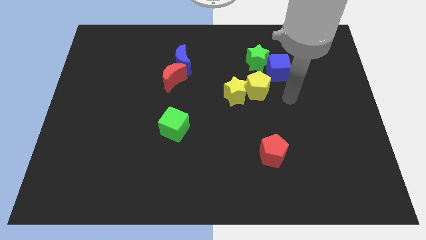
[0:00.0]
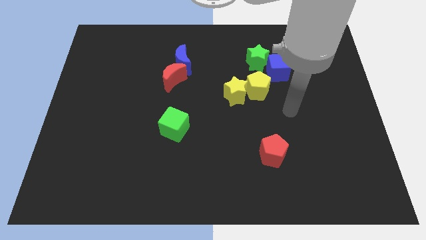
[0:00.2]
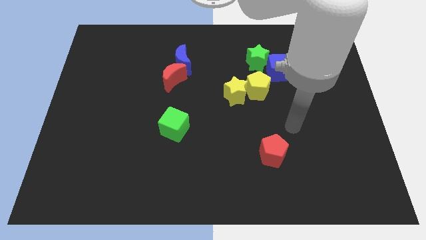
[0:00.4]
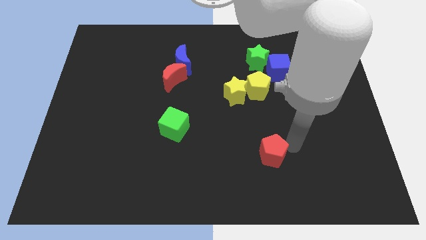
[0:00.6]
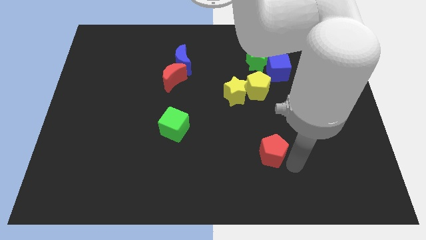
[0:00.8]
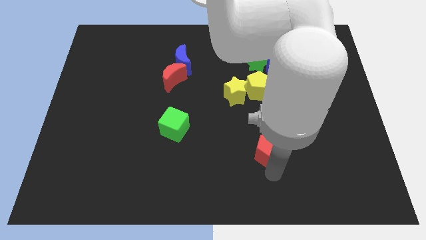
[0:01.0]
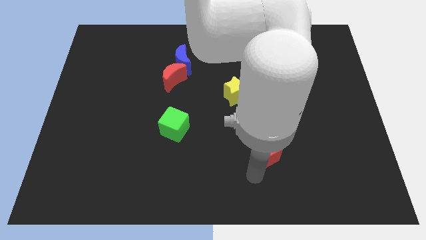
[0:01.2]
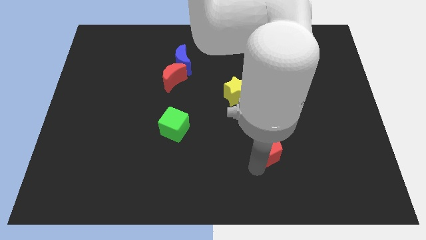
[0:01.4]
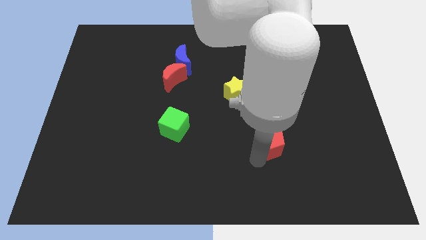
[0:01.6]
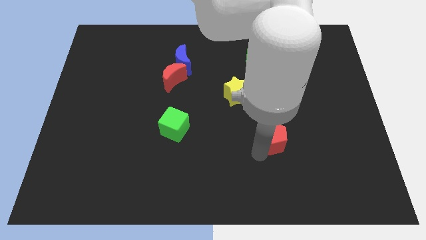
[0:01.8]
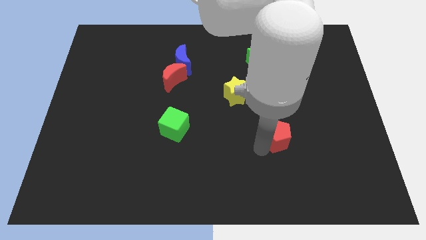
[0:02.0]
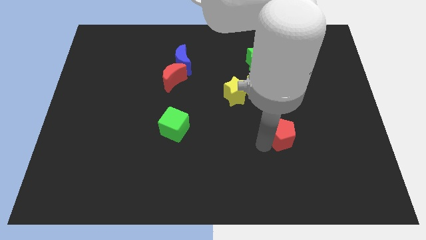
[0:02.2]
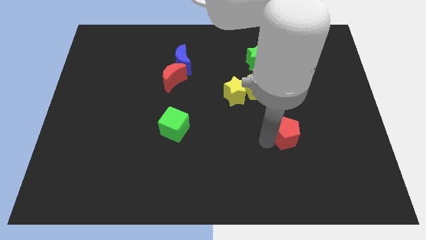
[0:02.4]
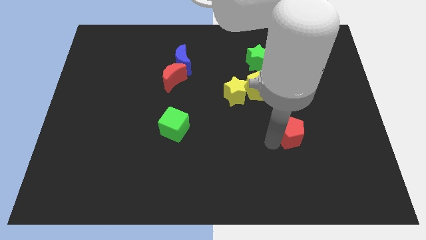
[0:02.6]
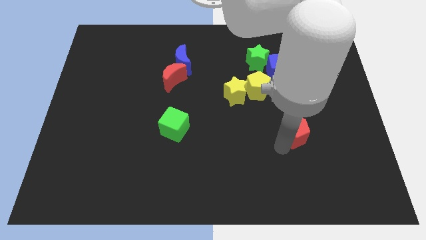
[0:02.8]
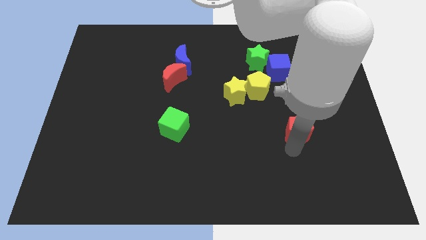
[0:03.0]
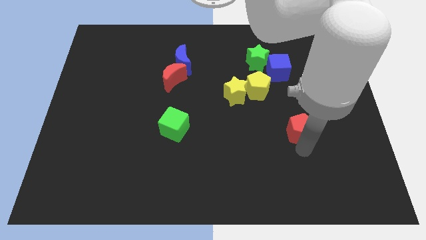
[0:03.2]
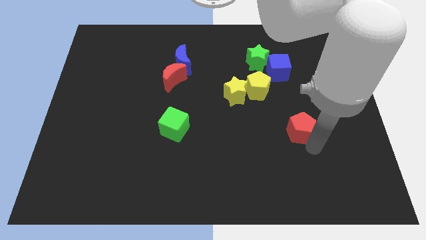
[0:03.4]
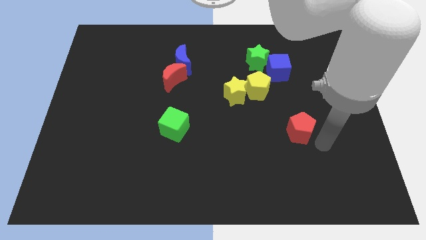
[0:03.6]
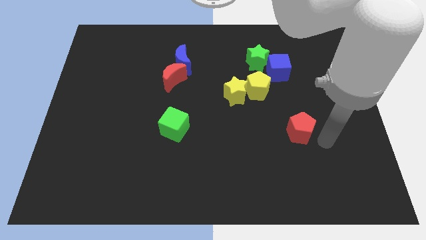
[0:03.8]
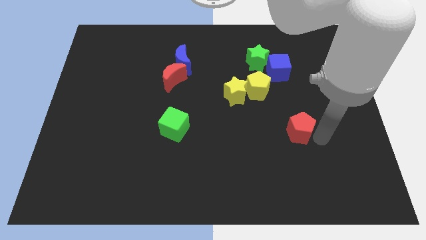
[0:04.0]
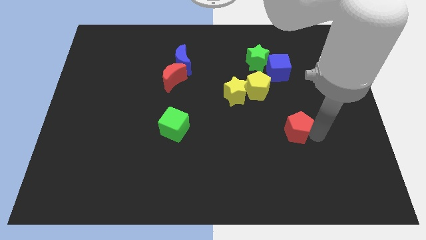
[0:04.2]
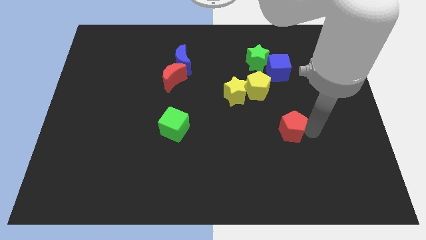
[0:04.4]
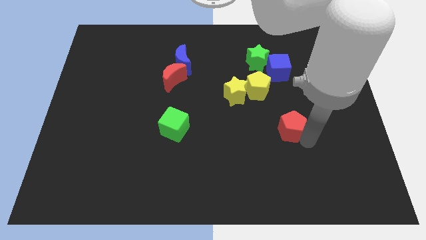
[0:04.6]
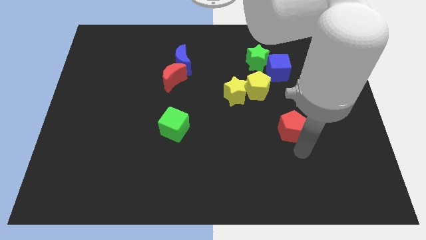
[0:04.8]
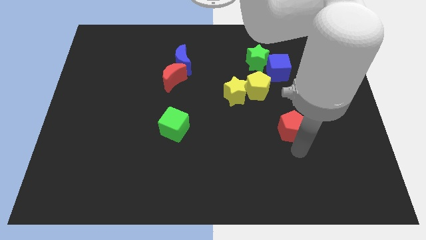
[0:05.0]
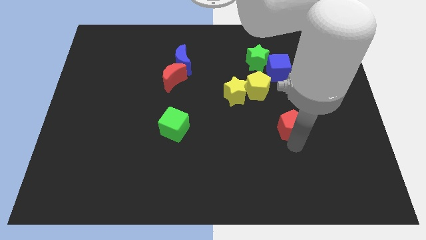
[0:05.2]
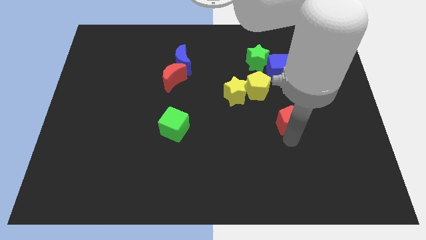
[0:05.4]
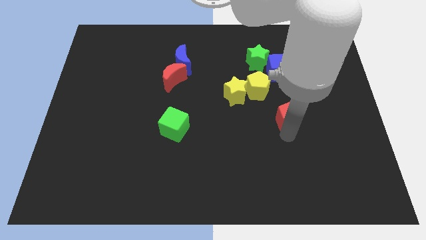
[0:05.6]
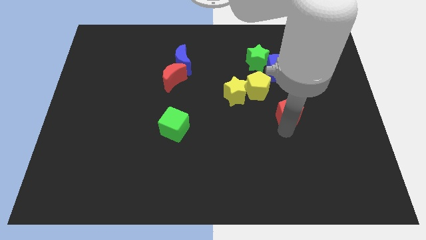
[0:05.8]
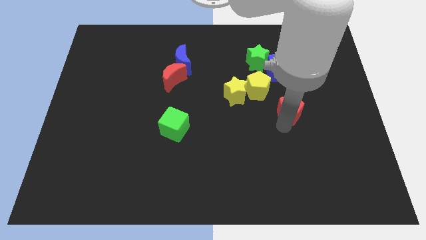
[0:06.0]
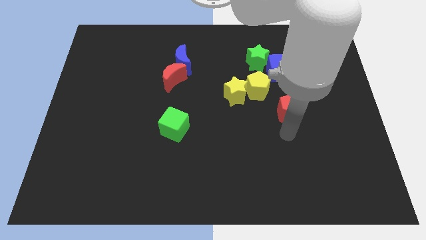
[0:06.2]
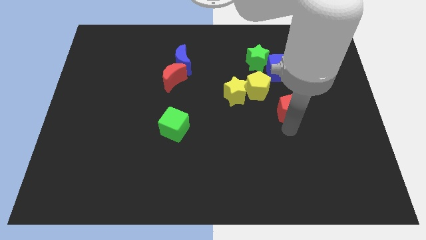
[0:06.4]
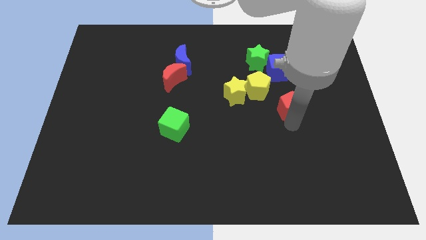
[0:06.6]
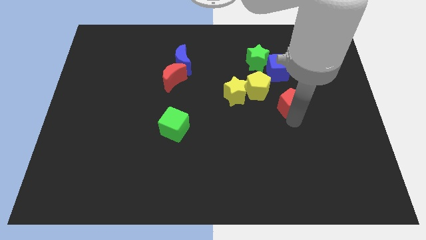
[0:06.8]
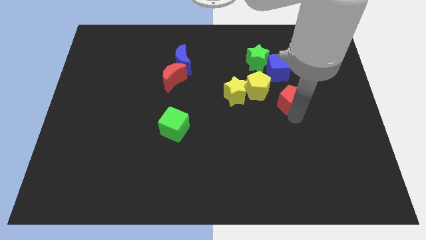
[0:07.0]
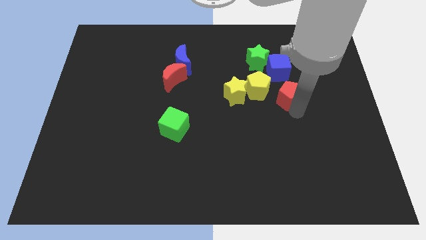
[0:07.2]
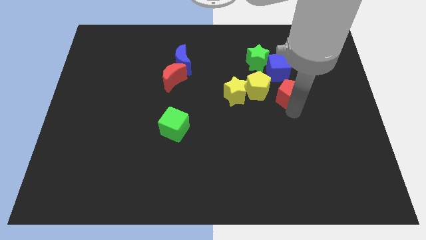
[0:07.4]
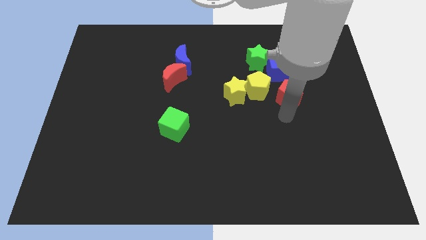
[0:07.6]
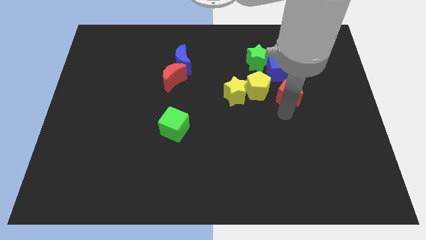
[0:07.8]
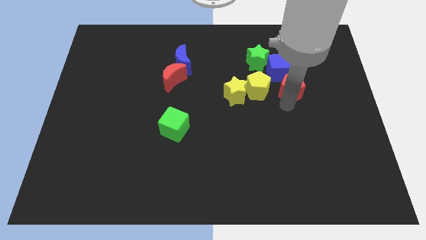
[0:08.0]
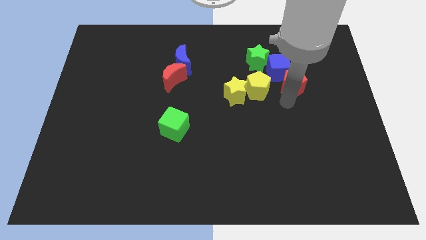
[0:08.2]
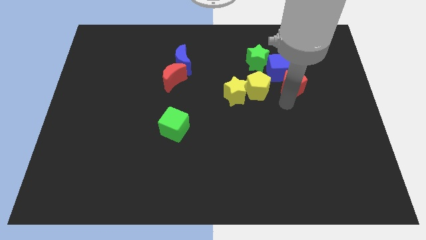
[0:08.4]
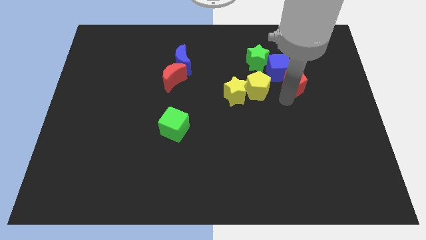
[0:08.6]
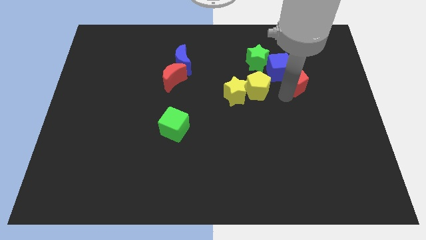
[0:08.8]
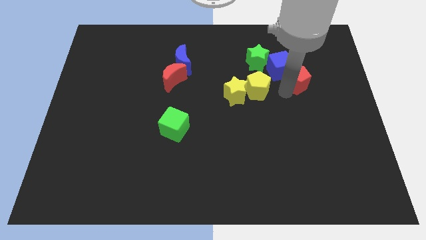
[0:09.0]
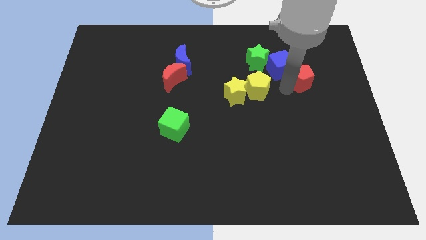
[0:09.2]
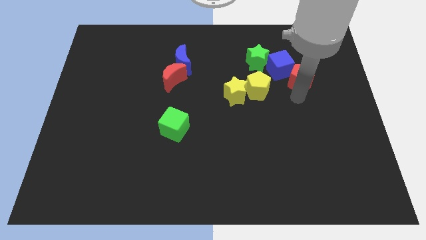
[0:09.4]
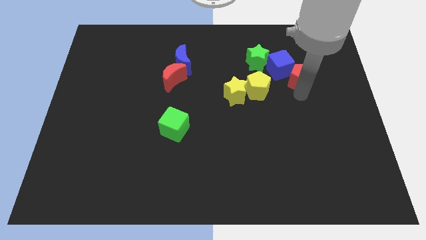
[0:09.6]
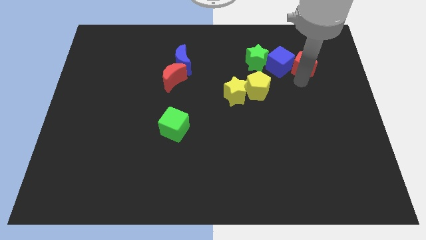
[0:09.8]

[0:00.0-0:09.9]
push the red pentagon to the top right side of the blue cube

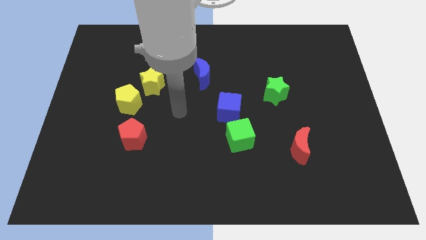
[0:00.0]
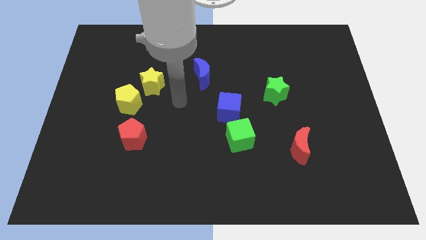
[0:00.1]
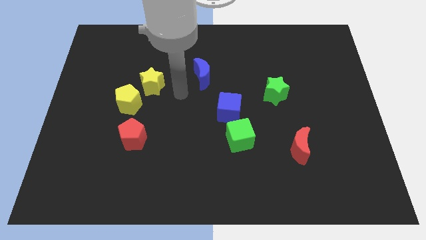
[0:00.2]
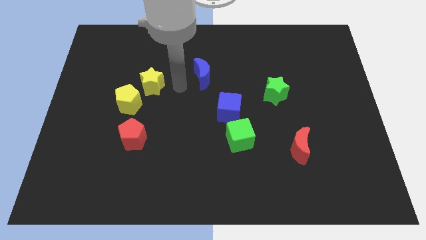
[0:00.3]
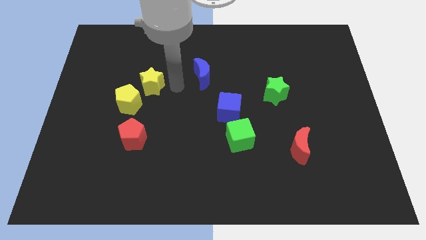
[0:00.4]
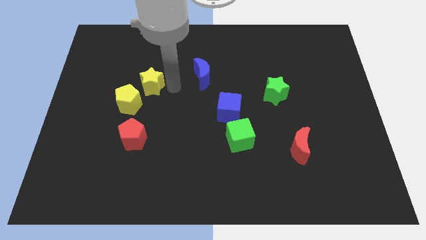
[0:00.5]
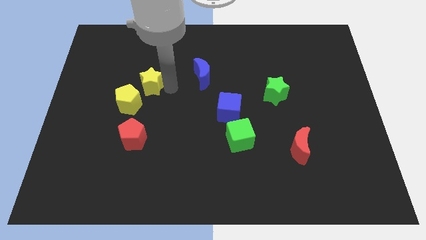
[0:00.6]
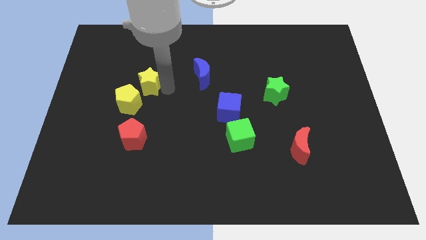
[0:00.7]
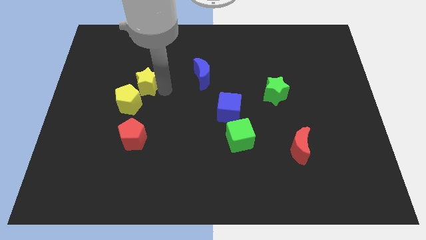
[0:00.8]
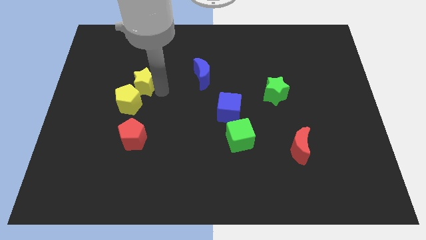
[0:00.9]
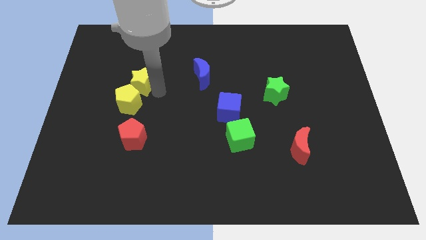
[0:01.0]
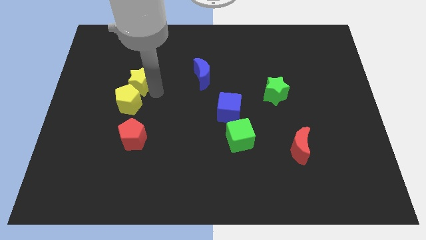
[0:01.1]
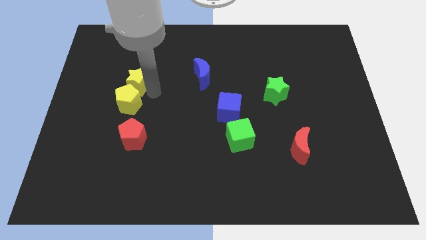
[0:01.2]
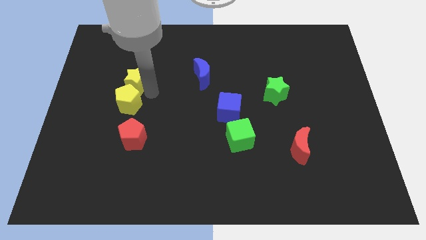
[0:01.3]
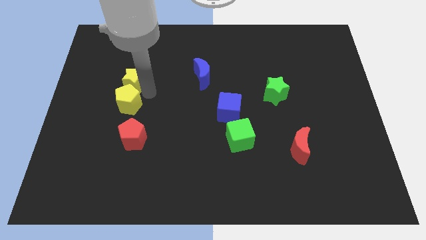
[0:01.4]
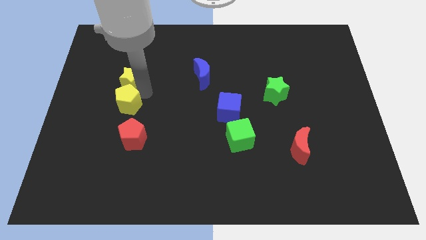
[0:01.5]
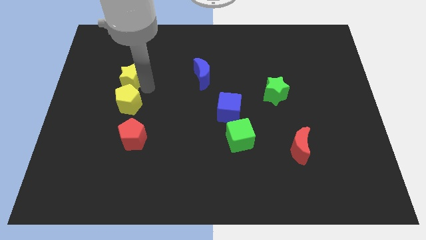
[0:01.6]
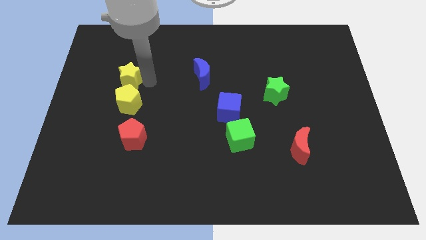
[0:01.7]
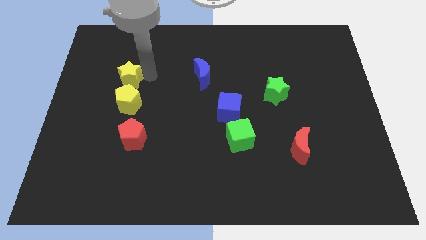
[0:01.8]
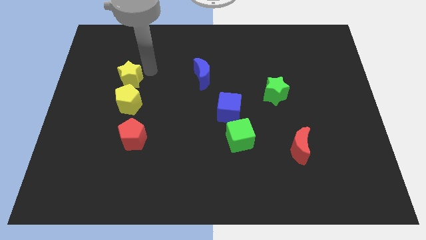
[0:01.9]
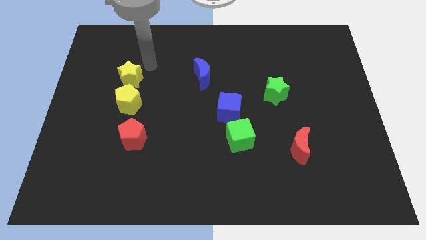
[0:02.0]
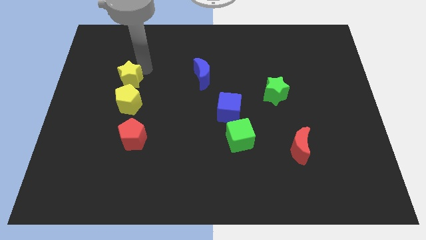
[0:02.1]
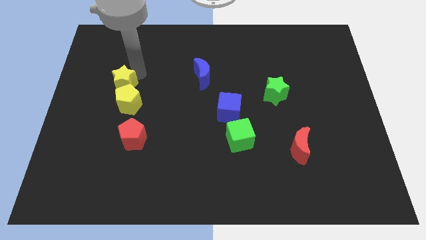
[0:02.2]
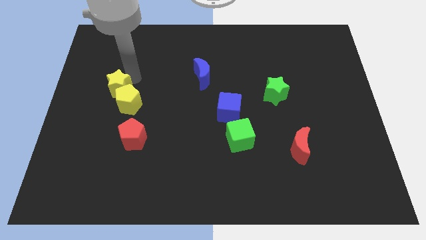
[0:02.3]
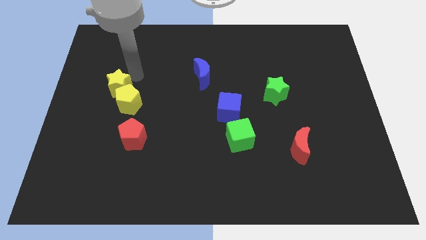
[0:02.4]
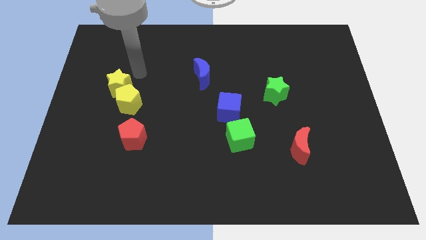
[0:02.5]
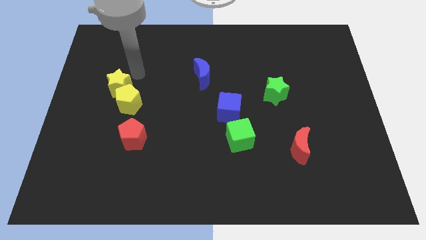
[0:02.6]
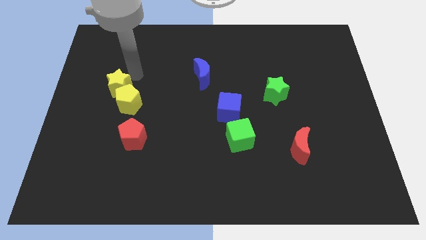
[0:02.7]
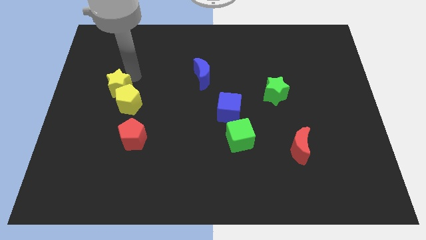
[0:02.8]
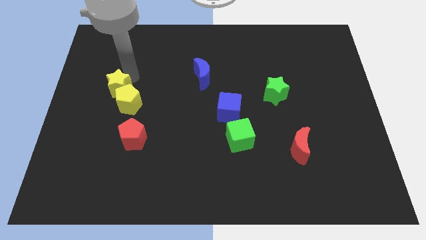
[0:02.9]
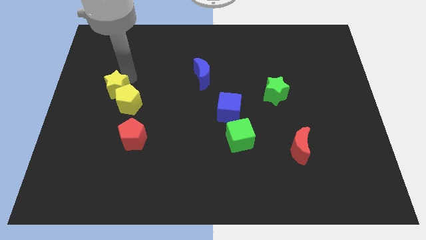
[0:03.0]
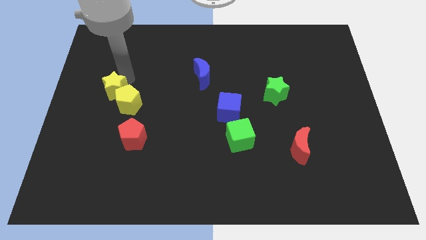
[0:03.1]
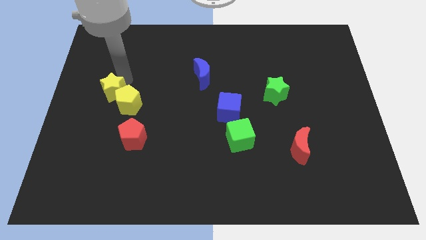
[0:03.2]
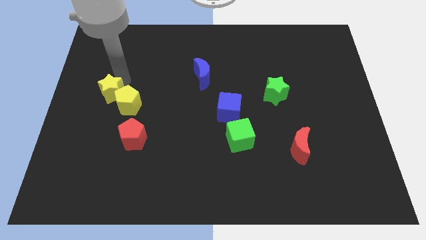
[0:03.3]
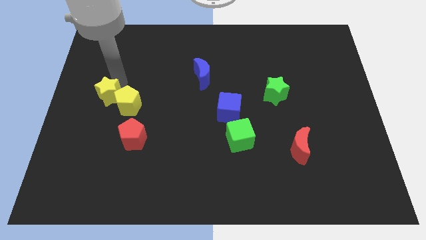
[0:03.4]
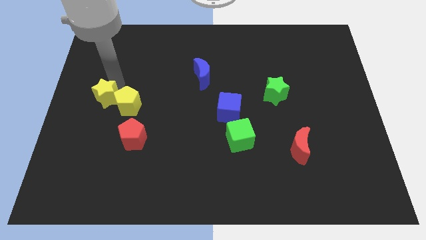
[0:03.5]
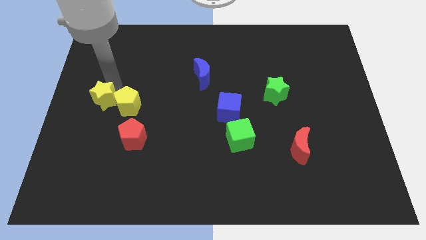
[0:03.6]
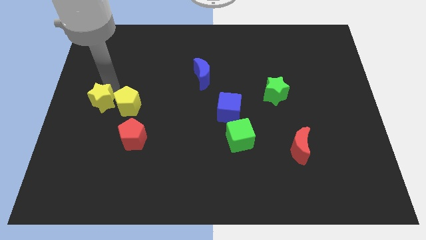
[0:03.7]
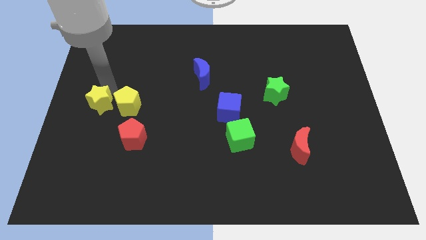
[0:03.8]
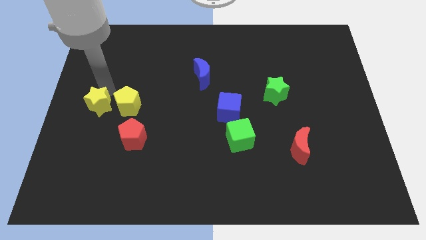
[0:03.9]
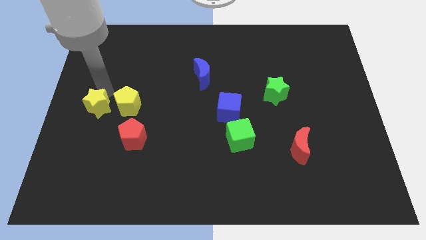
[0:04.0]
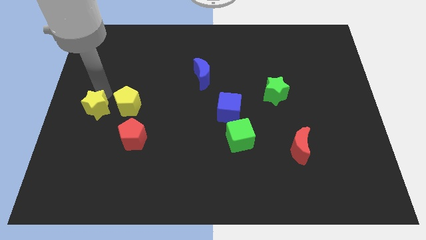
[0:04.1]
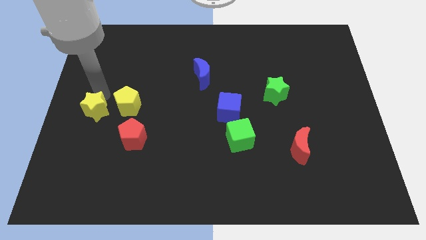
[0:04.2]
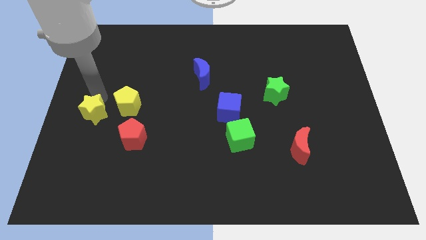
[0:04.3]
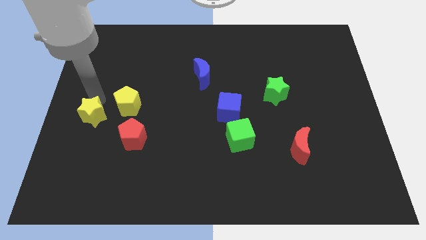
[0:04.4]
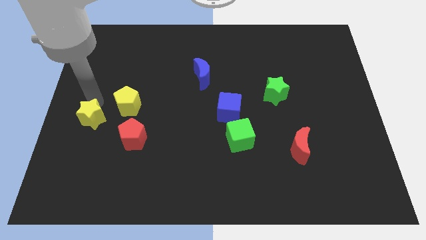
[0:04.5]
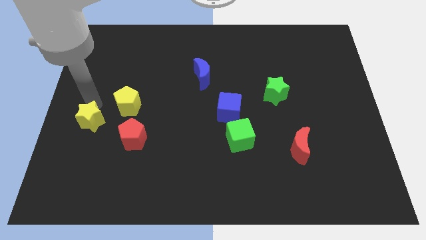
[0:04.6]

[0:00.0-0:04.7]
slide the yellow star left of the red pentagon
